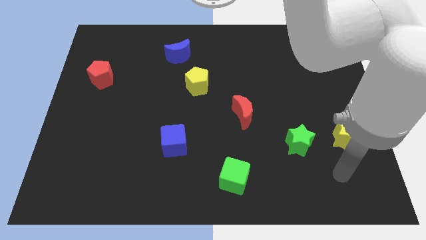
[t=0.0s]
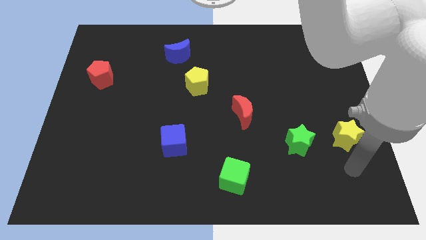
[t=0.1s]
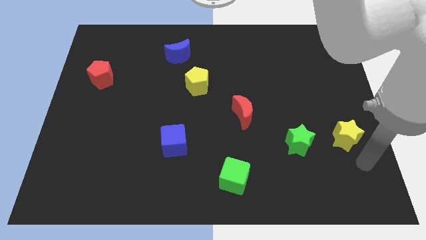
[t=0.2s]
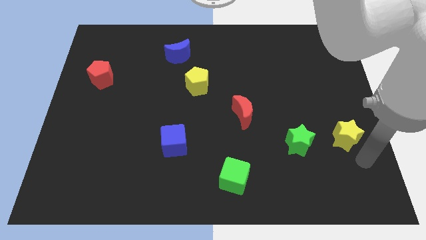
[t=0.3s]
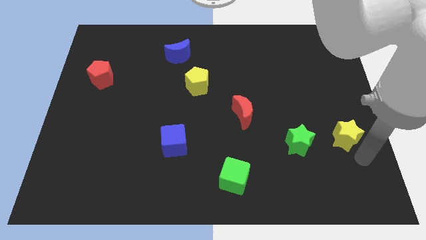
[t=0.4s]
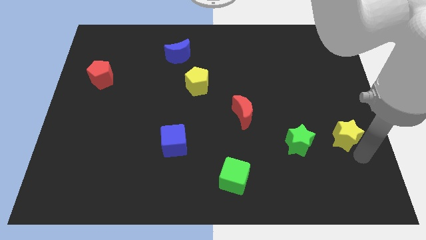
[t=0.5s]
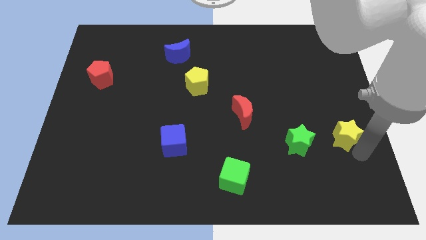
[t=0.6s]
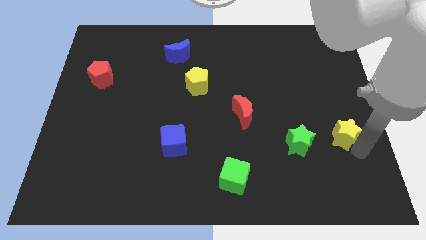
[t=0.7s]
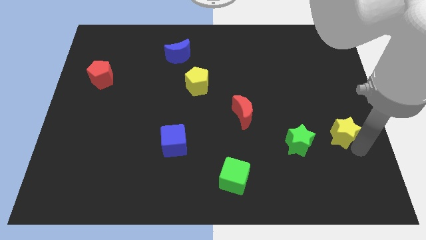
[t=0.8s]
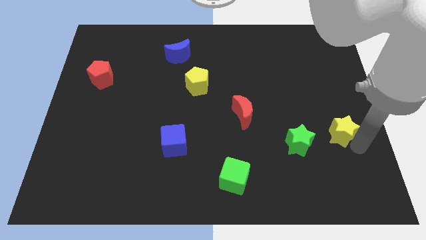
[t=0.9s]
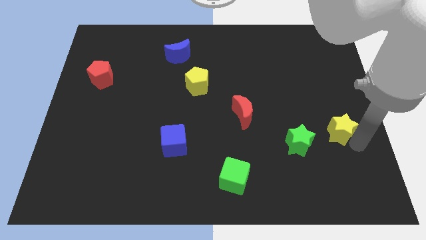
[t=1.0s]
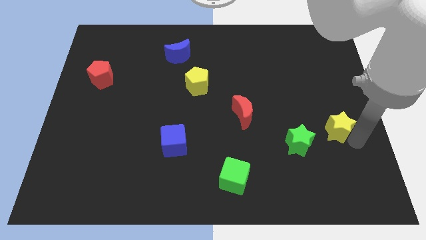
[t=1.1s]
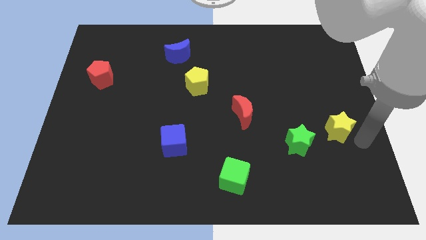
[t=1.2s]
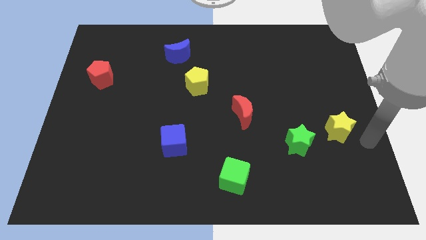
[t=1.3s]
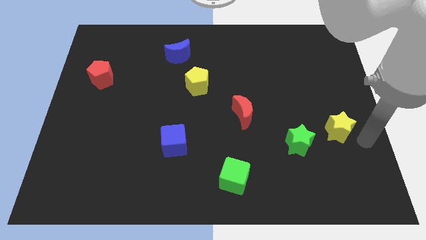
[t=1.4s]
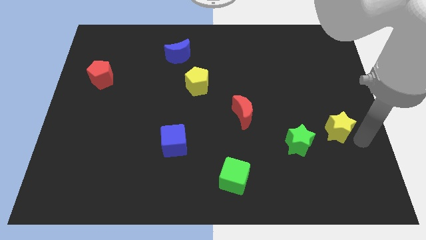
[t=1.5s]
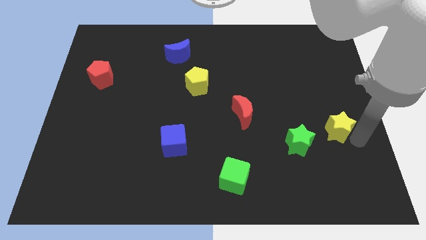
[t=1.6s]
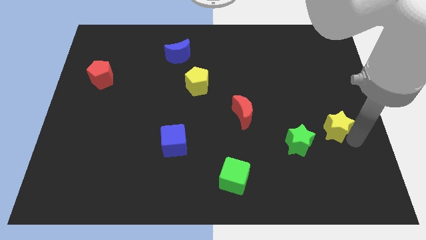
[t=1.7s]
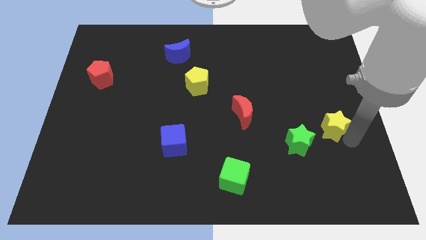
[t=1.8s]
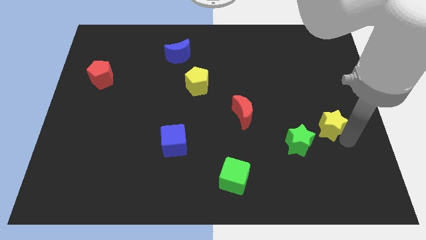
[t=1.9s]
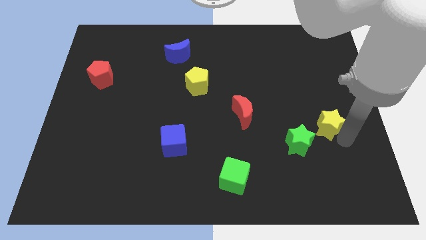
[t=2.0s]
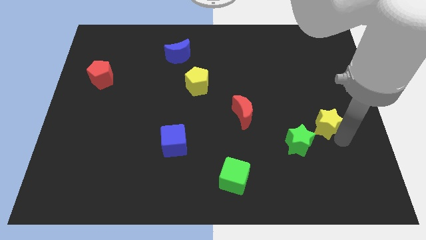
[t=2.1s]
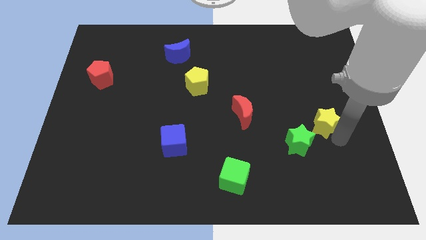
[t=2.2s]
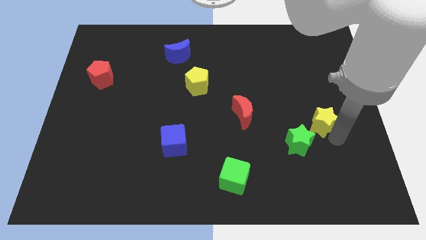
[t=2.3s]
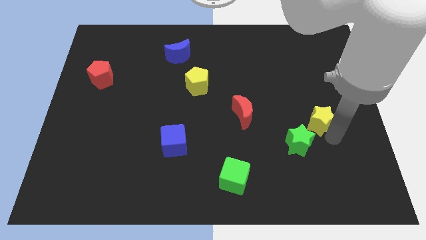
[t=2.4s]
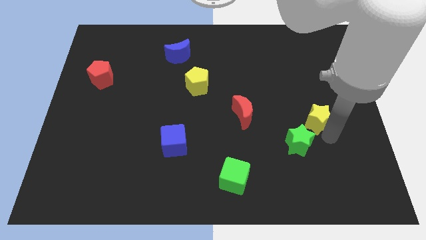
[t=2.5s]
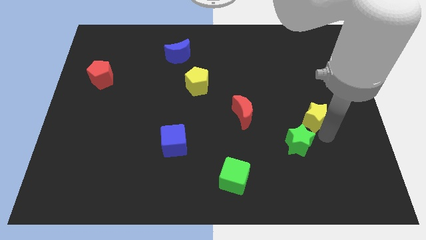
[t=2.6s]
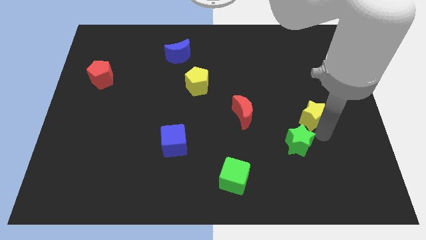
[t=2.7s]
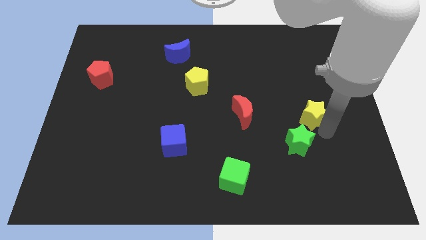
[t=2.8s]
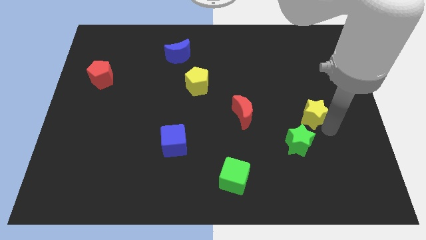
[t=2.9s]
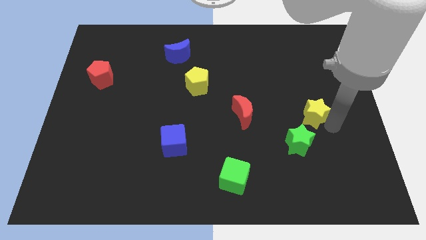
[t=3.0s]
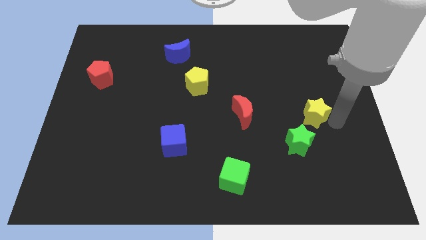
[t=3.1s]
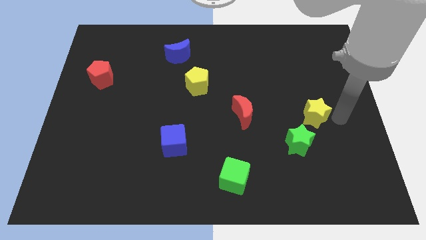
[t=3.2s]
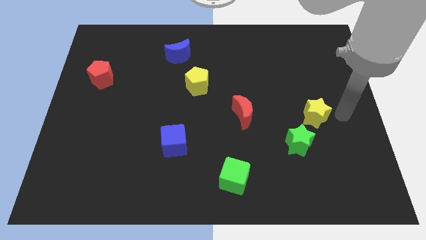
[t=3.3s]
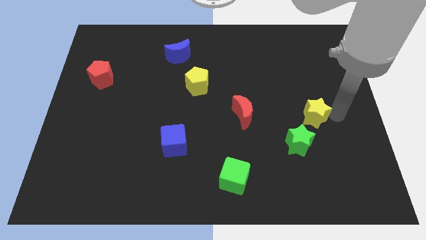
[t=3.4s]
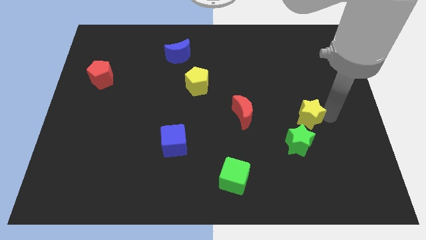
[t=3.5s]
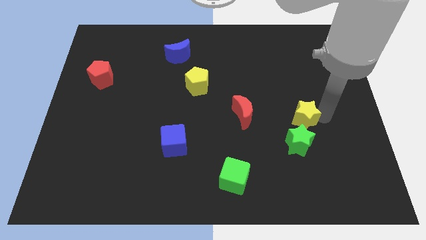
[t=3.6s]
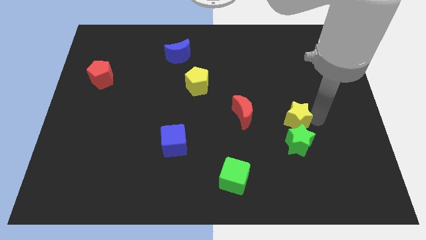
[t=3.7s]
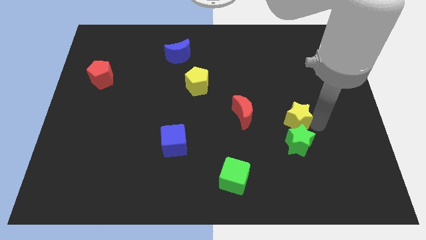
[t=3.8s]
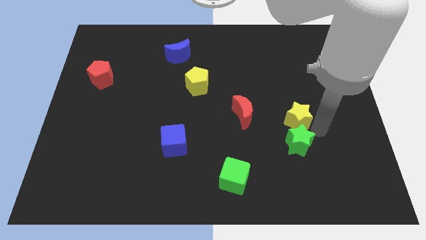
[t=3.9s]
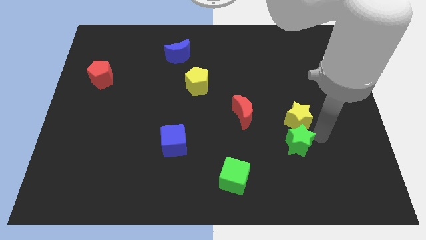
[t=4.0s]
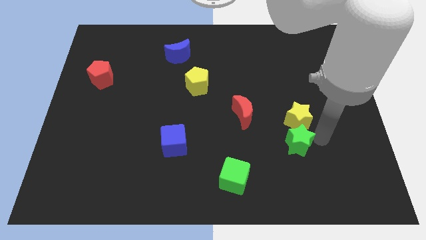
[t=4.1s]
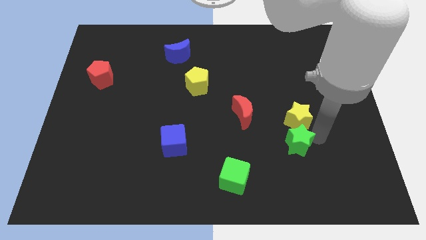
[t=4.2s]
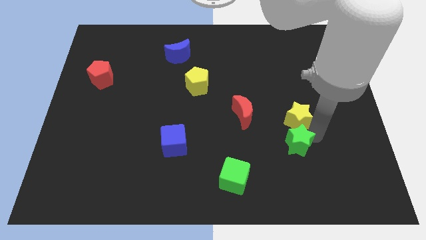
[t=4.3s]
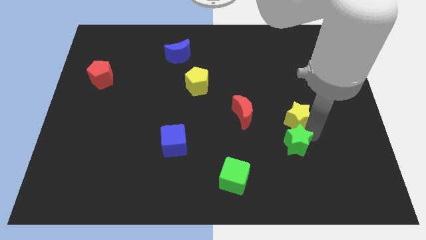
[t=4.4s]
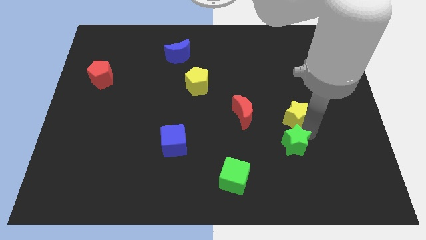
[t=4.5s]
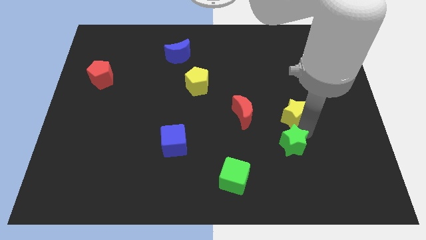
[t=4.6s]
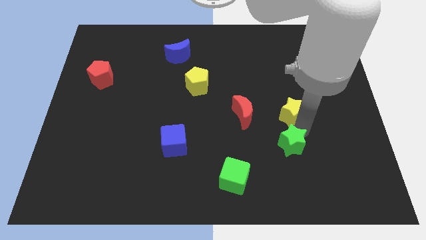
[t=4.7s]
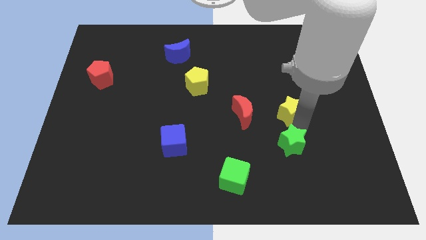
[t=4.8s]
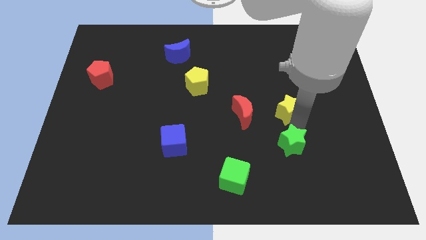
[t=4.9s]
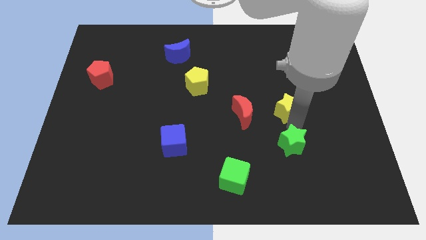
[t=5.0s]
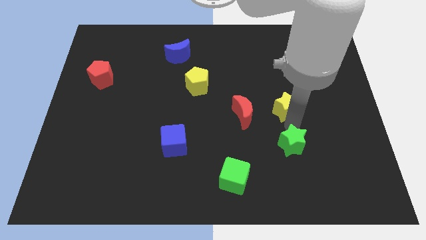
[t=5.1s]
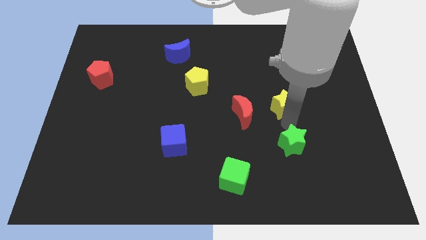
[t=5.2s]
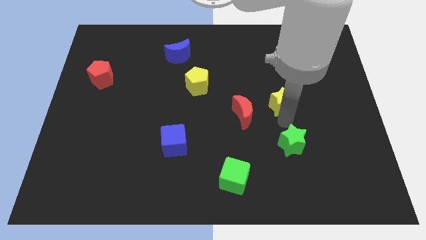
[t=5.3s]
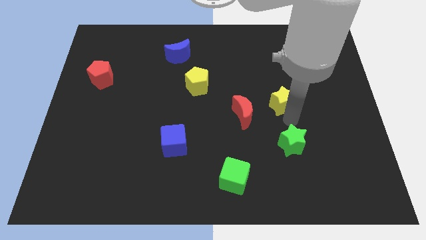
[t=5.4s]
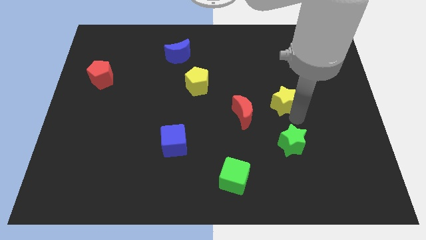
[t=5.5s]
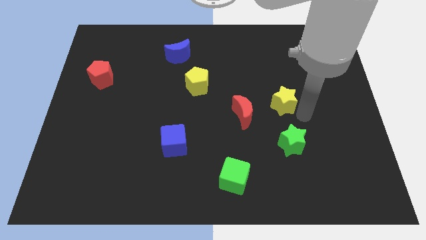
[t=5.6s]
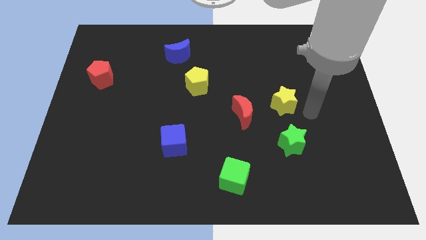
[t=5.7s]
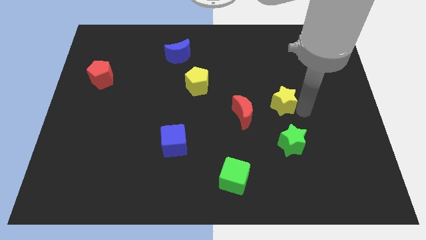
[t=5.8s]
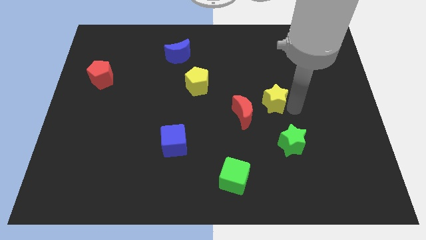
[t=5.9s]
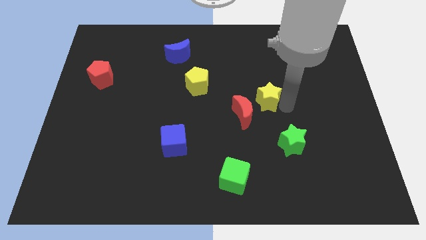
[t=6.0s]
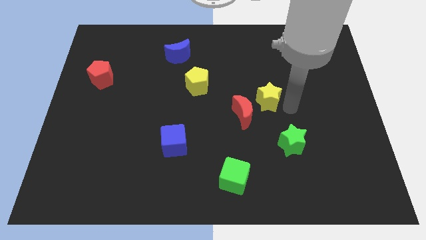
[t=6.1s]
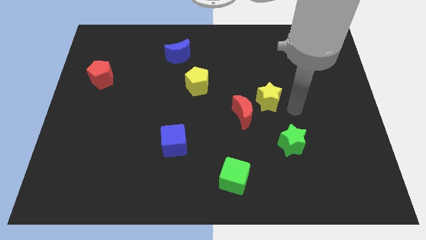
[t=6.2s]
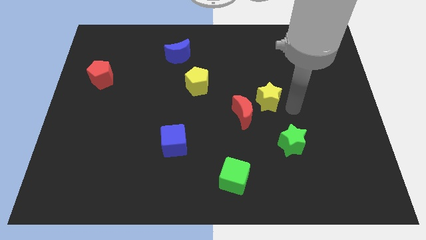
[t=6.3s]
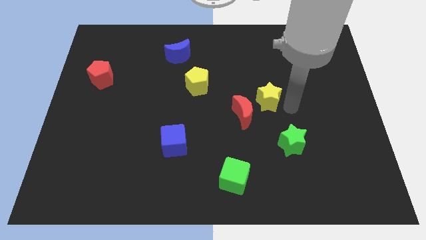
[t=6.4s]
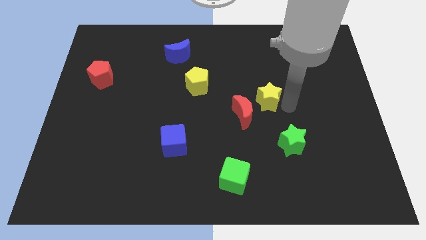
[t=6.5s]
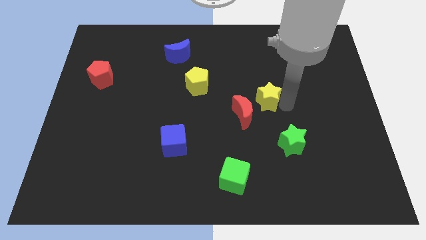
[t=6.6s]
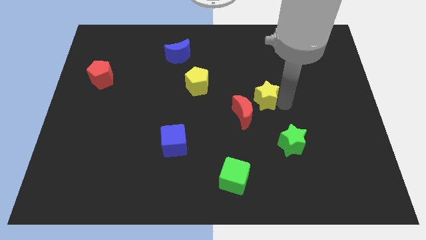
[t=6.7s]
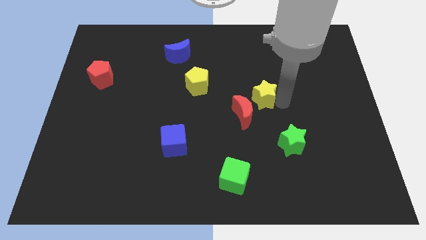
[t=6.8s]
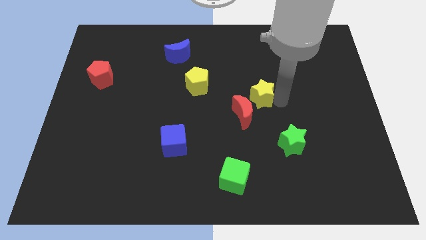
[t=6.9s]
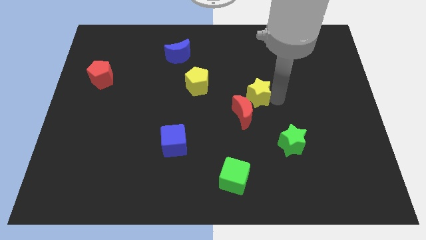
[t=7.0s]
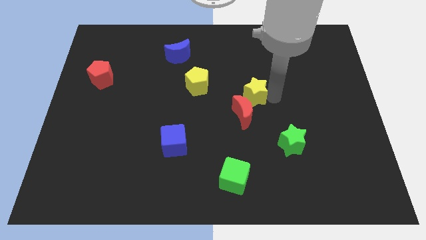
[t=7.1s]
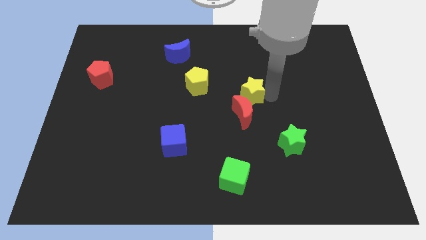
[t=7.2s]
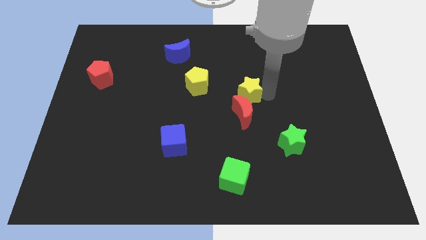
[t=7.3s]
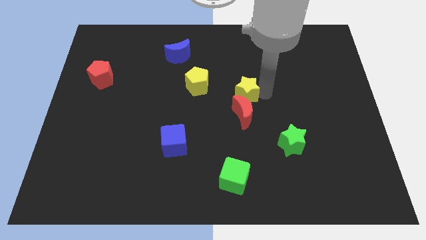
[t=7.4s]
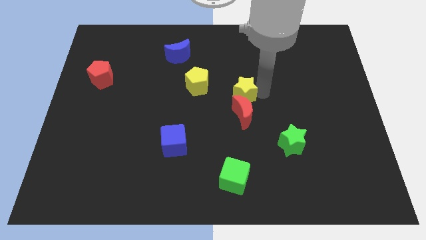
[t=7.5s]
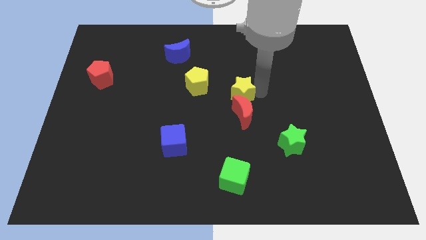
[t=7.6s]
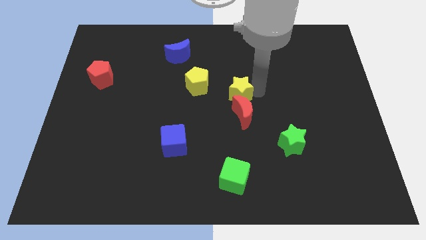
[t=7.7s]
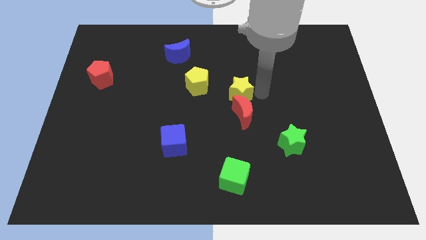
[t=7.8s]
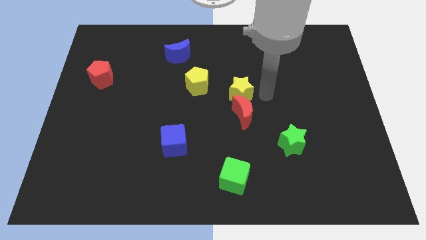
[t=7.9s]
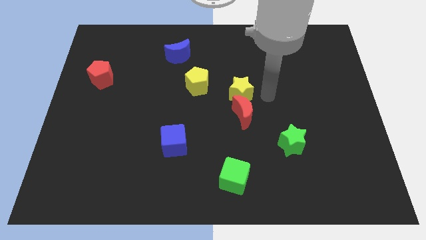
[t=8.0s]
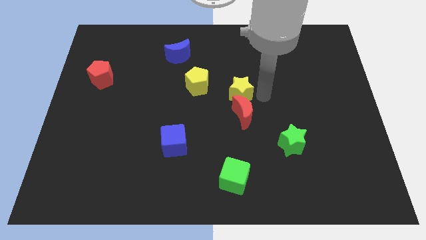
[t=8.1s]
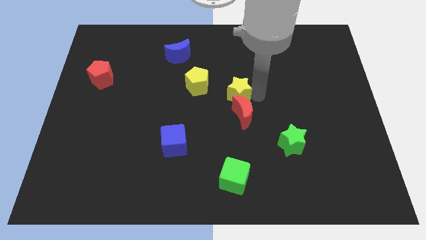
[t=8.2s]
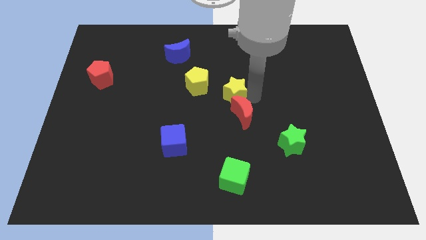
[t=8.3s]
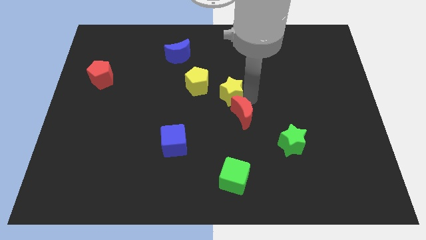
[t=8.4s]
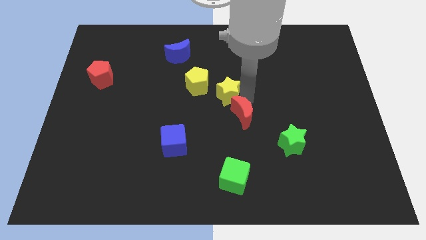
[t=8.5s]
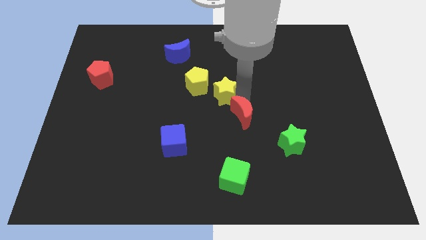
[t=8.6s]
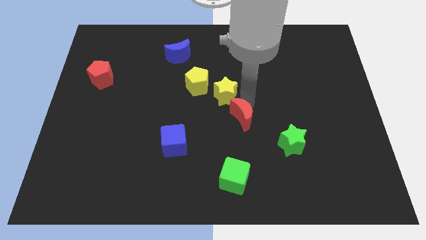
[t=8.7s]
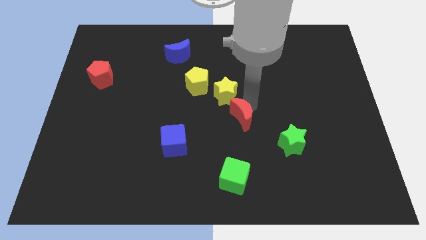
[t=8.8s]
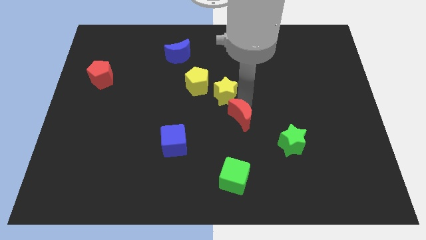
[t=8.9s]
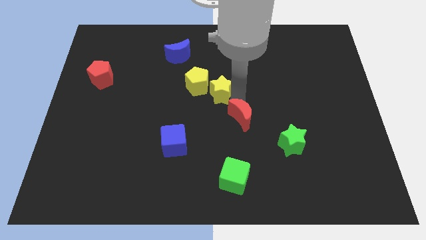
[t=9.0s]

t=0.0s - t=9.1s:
move the yellow star to the yellow pentagon
